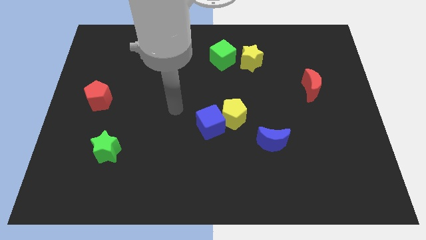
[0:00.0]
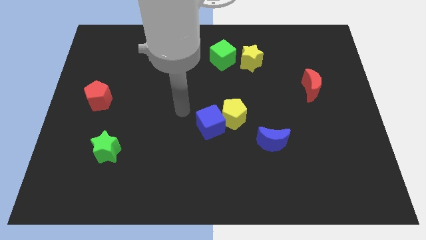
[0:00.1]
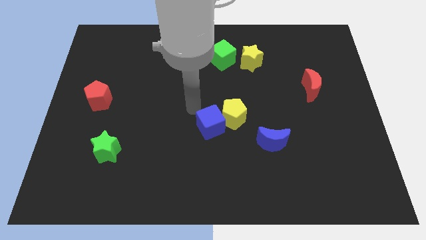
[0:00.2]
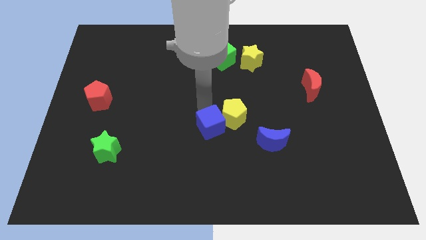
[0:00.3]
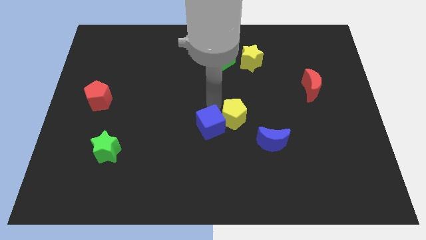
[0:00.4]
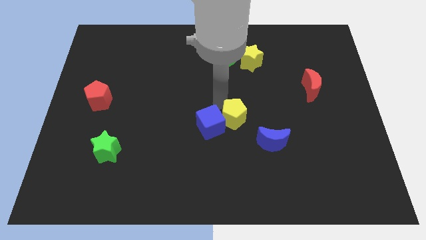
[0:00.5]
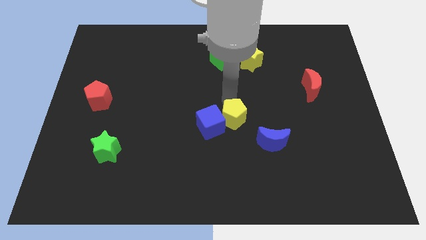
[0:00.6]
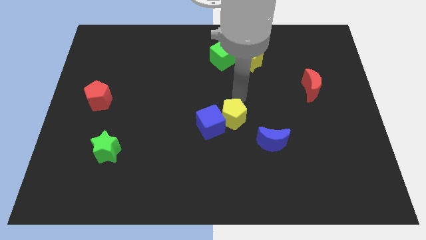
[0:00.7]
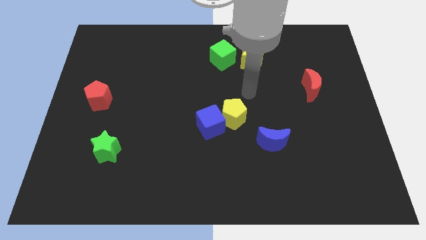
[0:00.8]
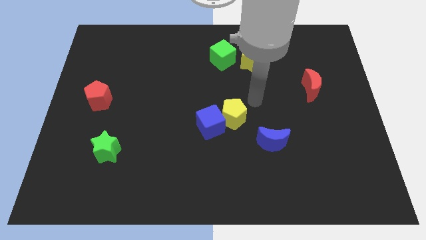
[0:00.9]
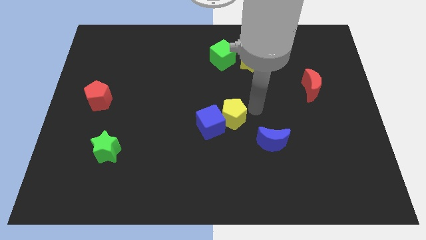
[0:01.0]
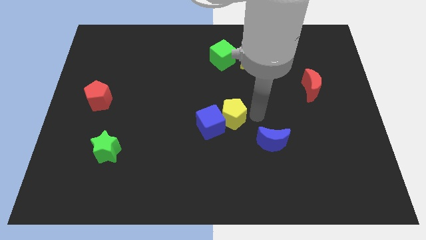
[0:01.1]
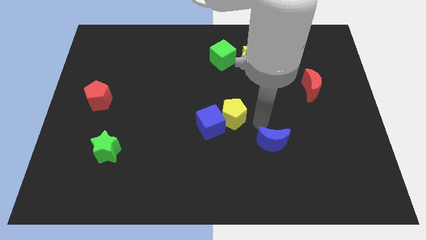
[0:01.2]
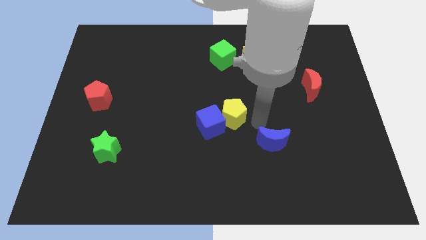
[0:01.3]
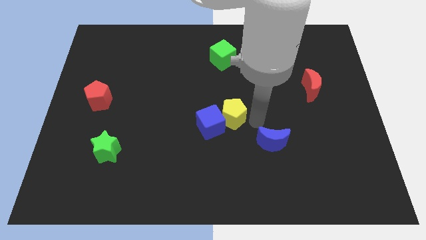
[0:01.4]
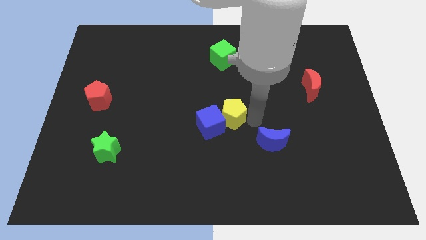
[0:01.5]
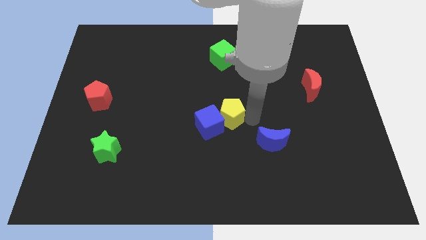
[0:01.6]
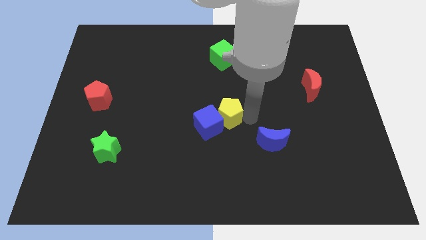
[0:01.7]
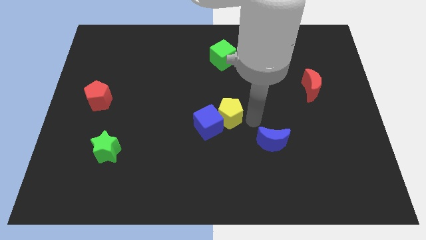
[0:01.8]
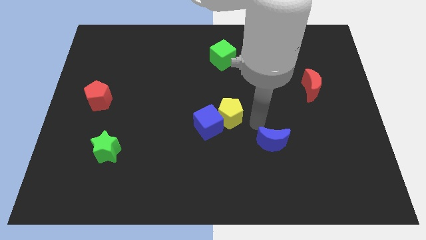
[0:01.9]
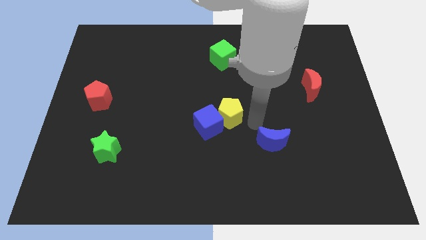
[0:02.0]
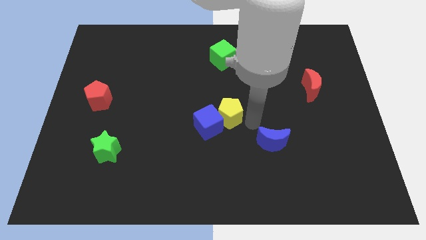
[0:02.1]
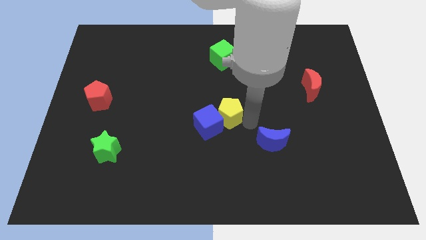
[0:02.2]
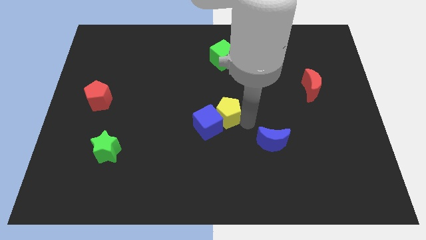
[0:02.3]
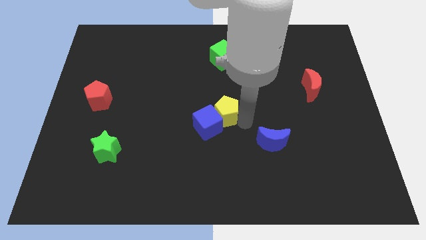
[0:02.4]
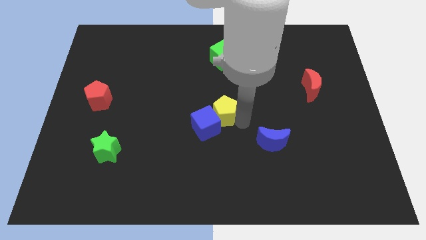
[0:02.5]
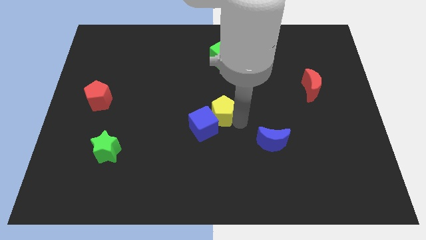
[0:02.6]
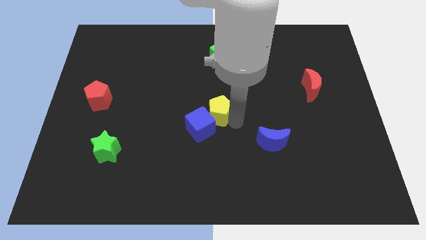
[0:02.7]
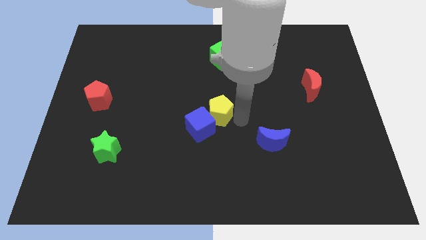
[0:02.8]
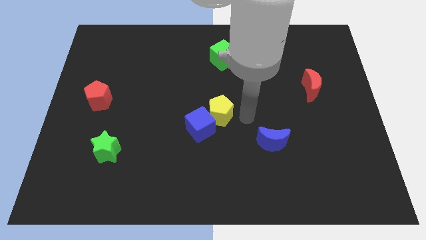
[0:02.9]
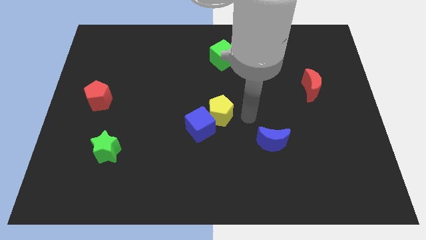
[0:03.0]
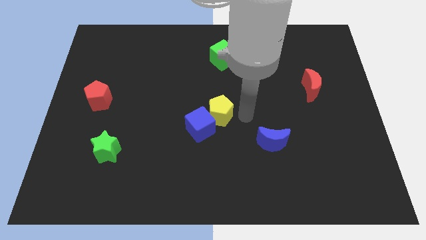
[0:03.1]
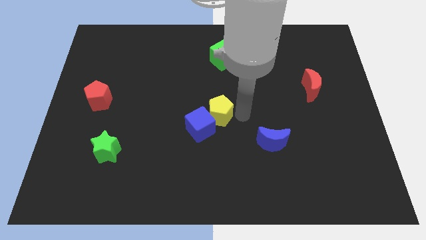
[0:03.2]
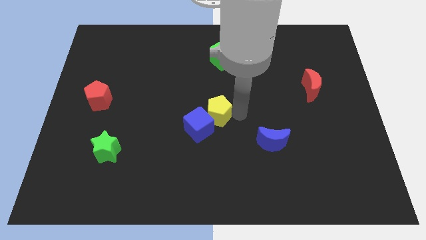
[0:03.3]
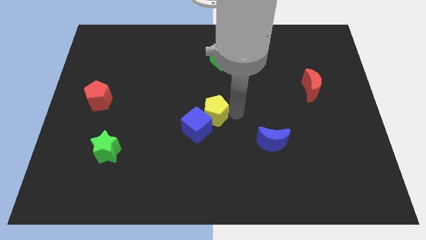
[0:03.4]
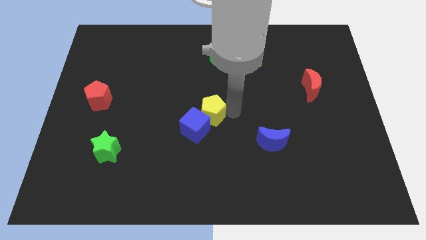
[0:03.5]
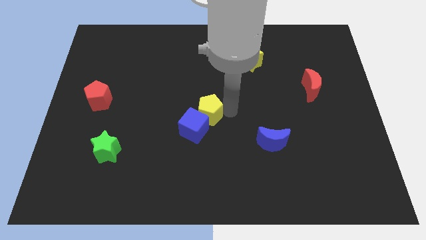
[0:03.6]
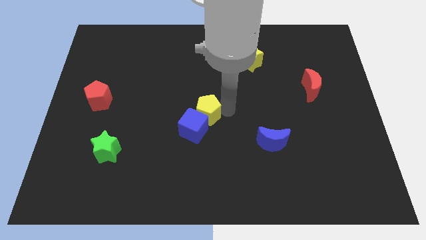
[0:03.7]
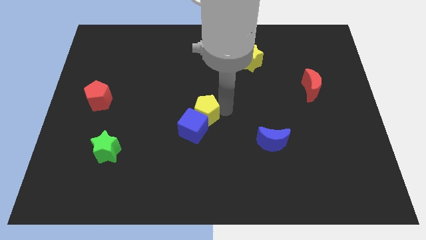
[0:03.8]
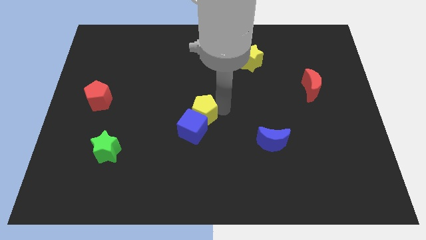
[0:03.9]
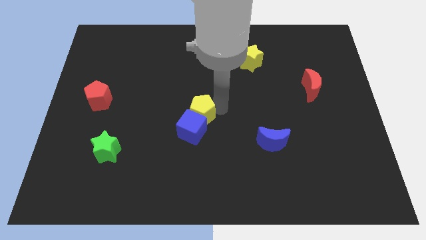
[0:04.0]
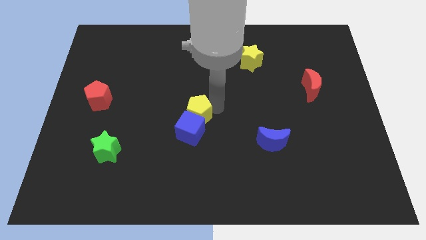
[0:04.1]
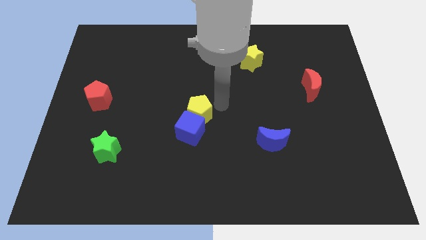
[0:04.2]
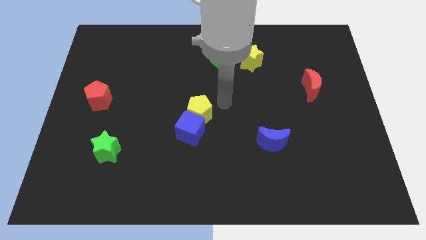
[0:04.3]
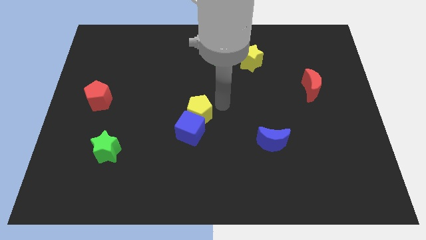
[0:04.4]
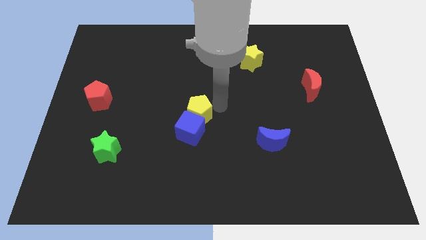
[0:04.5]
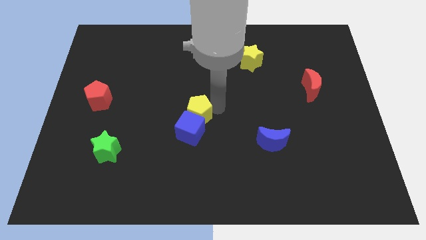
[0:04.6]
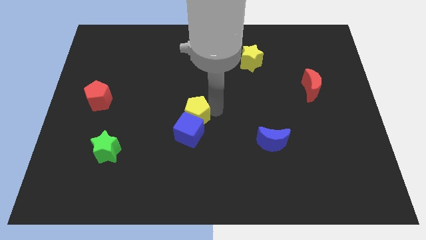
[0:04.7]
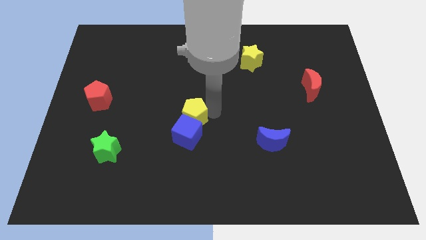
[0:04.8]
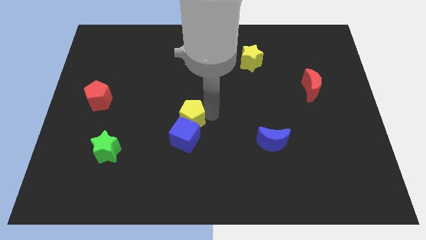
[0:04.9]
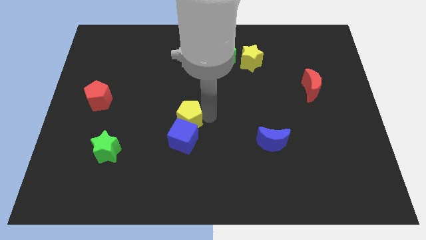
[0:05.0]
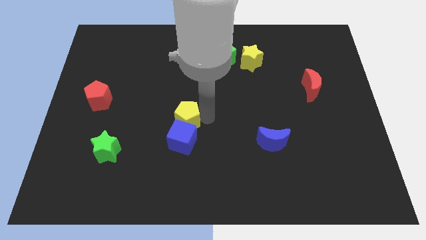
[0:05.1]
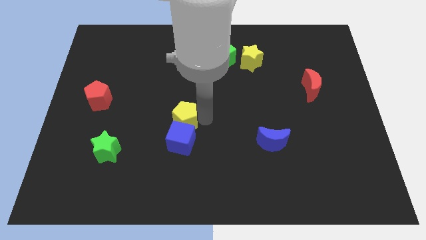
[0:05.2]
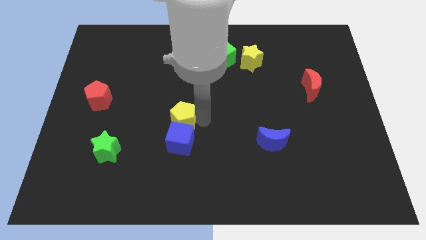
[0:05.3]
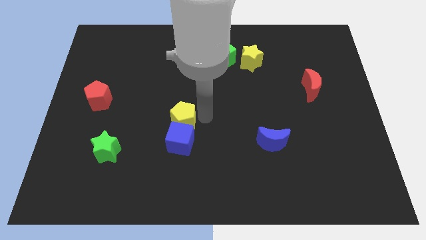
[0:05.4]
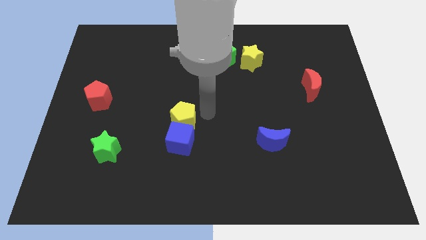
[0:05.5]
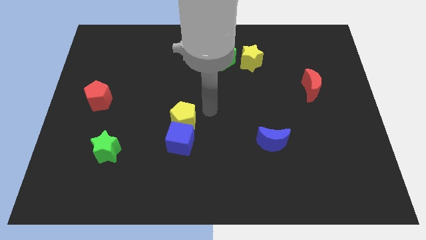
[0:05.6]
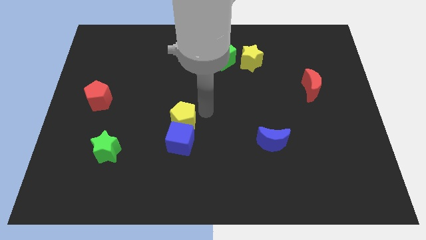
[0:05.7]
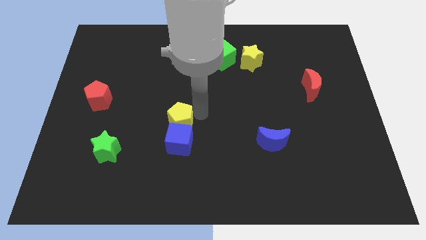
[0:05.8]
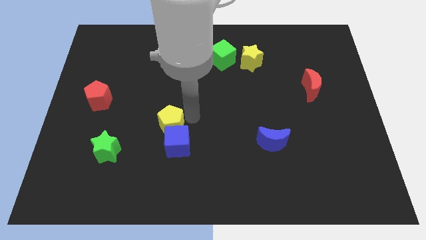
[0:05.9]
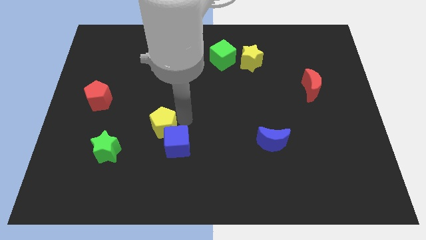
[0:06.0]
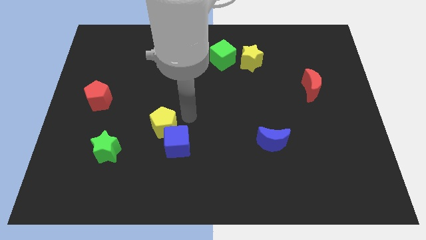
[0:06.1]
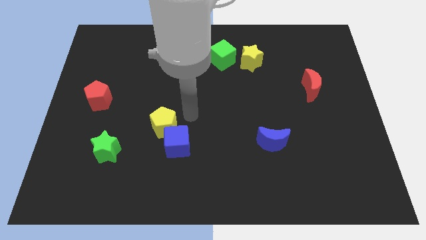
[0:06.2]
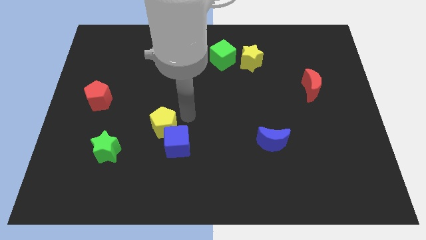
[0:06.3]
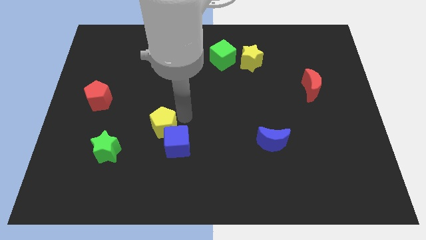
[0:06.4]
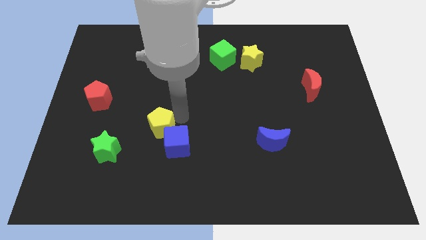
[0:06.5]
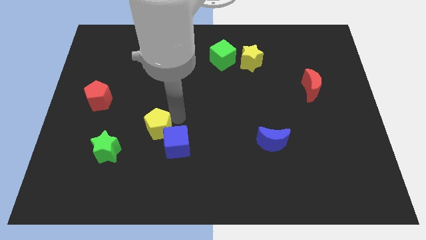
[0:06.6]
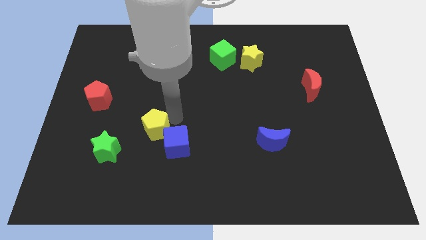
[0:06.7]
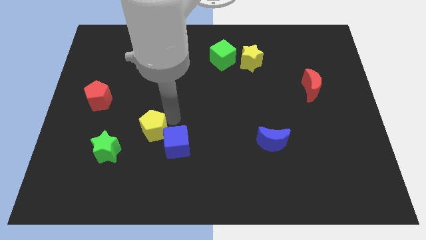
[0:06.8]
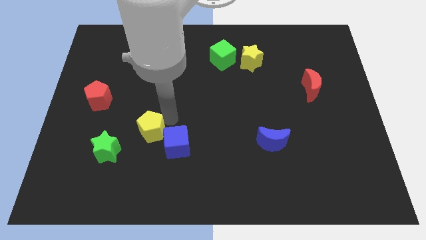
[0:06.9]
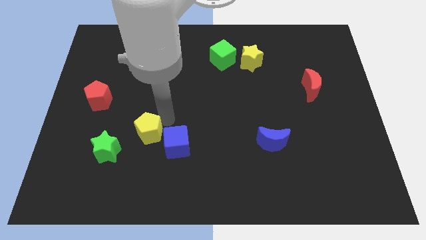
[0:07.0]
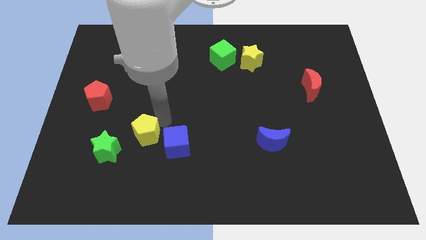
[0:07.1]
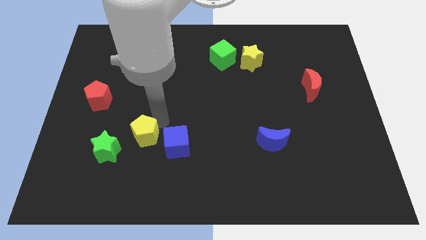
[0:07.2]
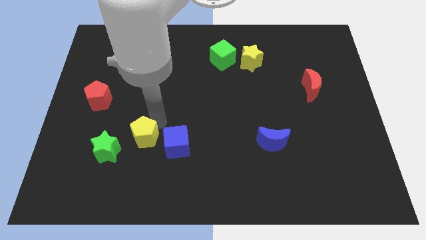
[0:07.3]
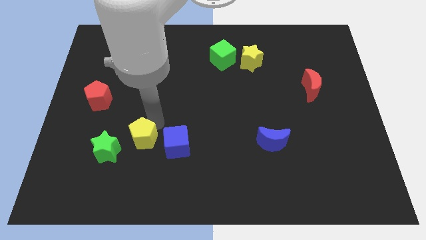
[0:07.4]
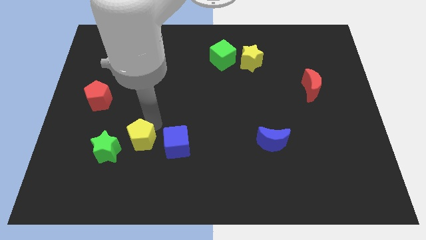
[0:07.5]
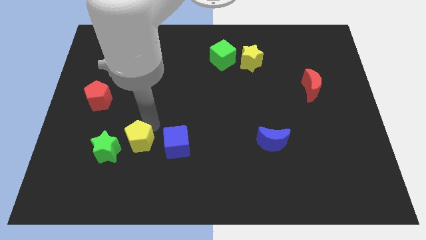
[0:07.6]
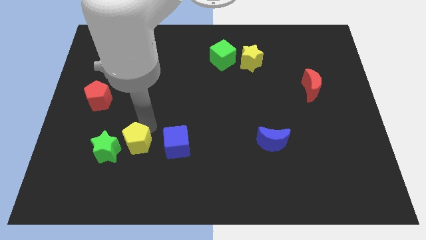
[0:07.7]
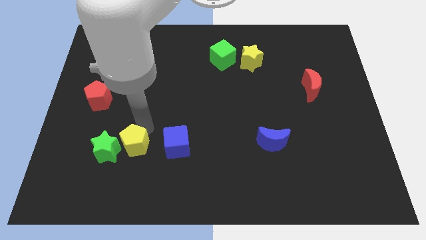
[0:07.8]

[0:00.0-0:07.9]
slide the yellow pentagon next to the green star
